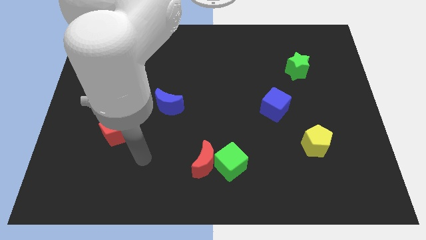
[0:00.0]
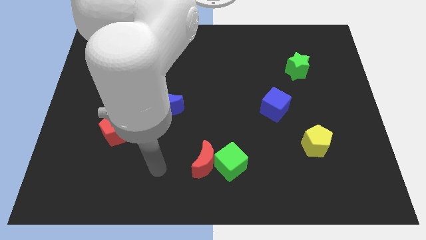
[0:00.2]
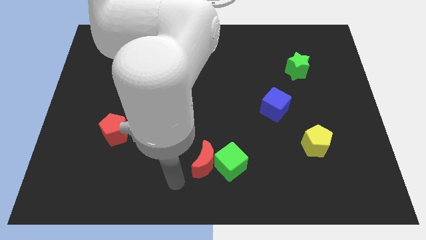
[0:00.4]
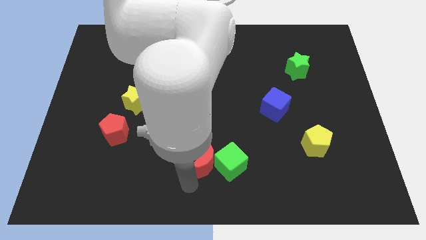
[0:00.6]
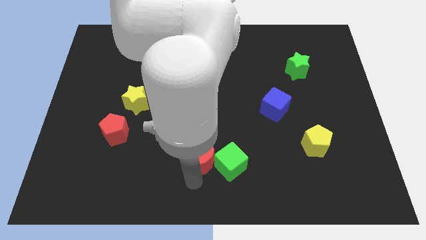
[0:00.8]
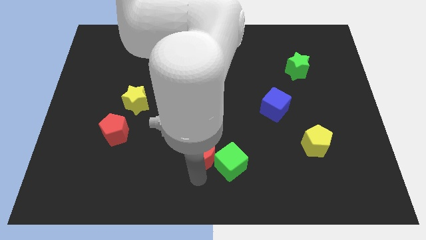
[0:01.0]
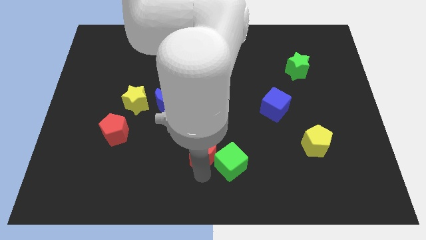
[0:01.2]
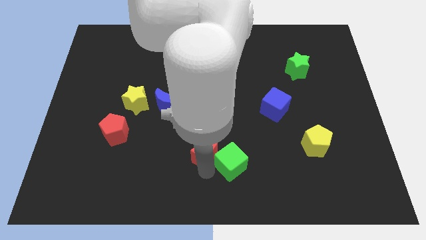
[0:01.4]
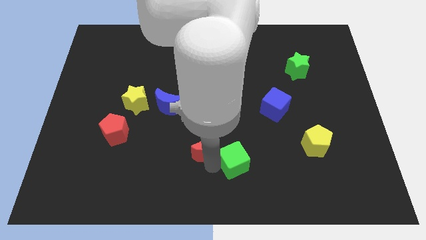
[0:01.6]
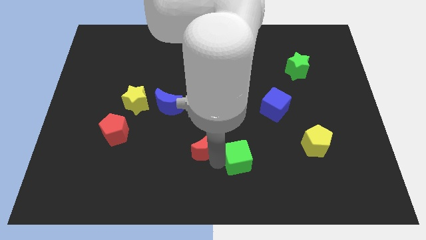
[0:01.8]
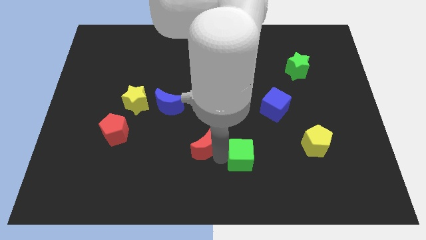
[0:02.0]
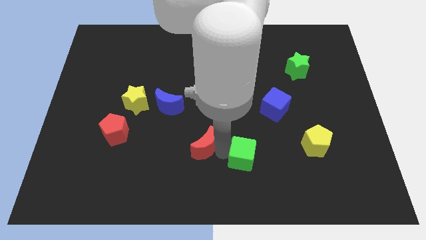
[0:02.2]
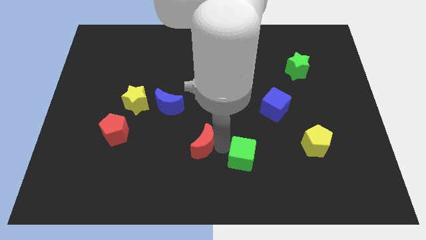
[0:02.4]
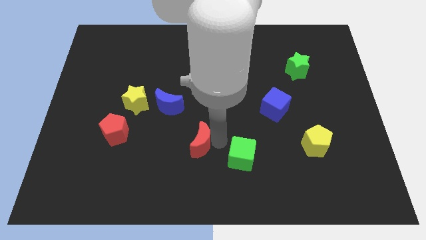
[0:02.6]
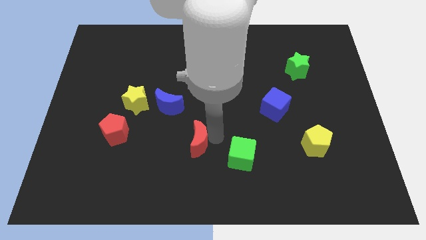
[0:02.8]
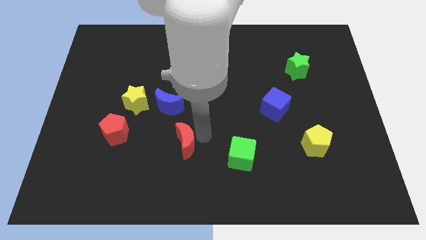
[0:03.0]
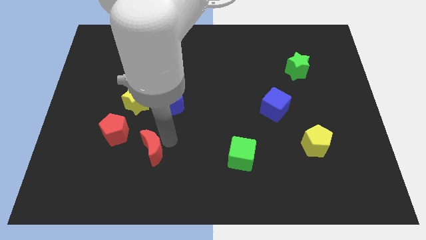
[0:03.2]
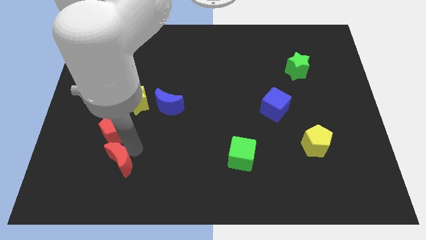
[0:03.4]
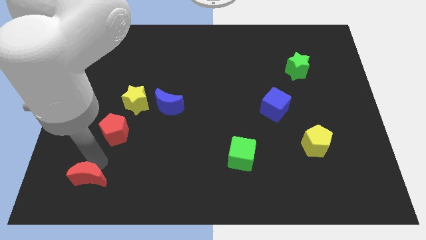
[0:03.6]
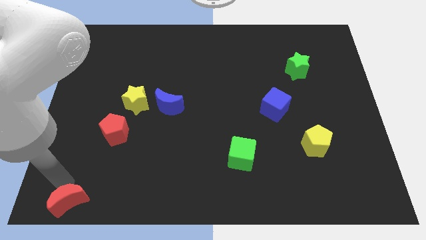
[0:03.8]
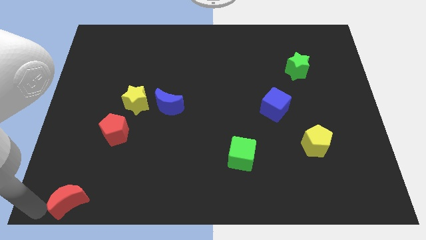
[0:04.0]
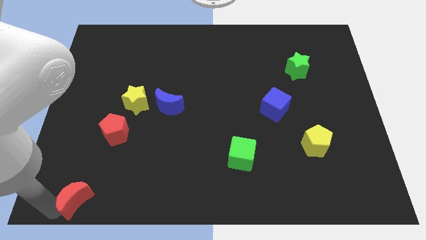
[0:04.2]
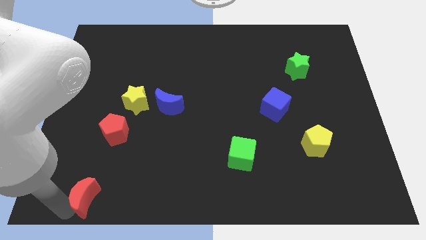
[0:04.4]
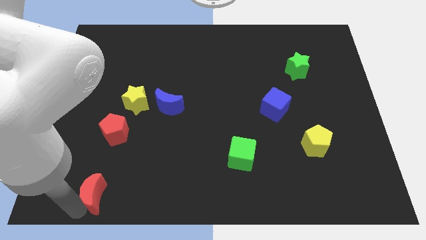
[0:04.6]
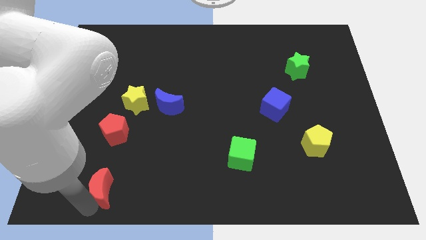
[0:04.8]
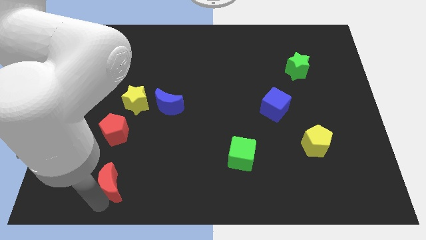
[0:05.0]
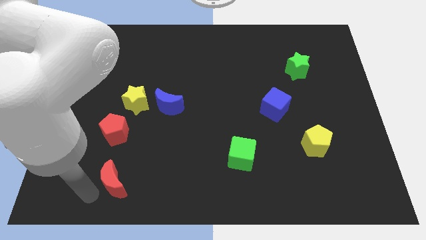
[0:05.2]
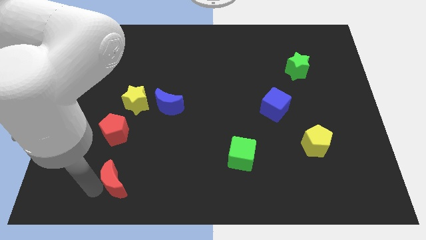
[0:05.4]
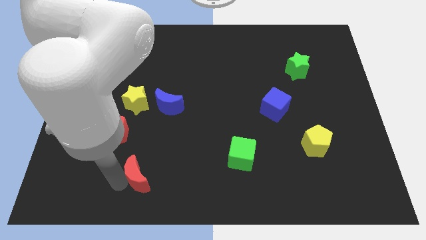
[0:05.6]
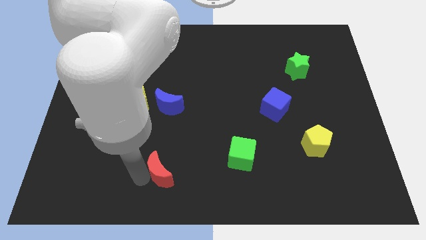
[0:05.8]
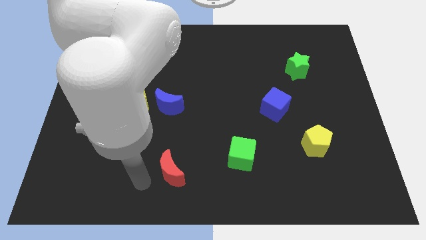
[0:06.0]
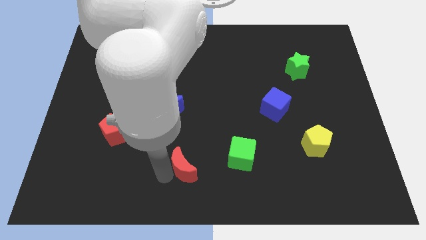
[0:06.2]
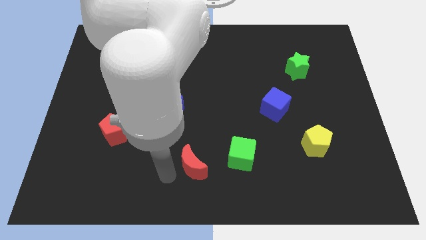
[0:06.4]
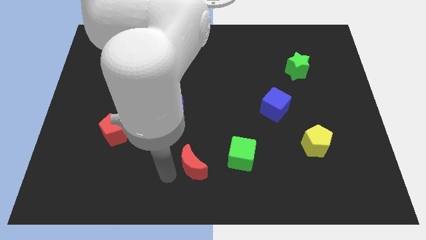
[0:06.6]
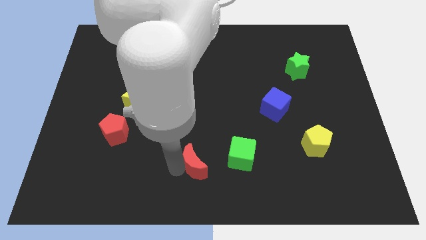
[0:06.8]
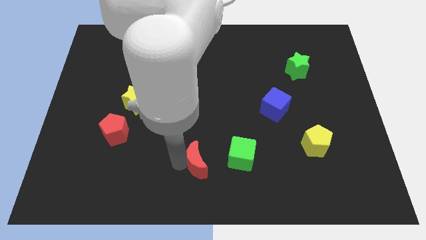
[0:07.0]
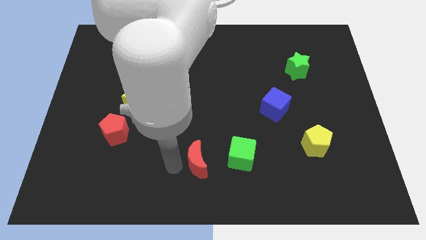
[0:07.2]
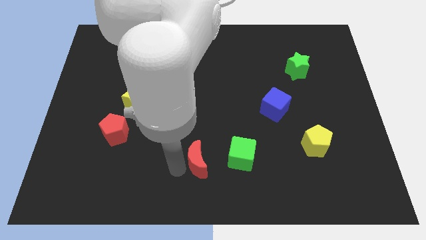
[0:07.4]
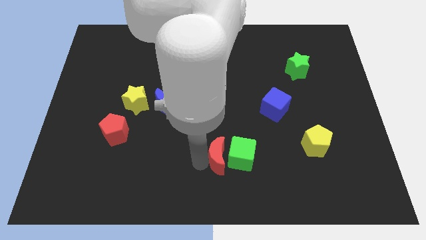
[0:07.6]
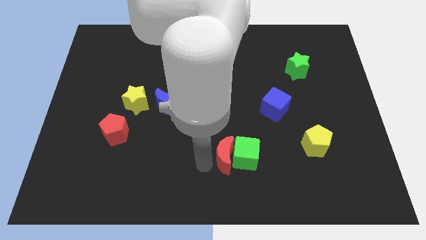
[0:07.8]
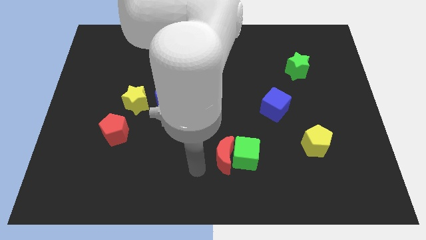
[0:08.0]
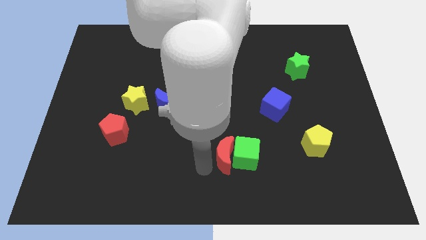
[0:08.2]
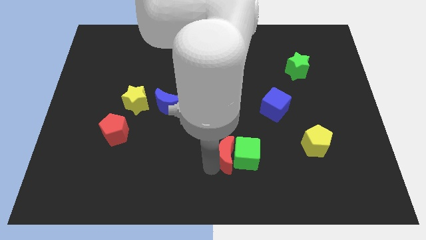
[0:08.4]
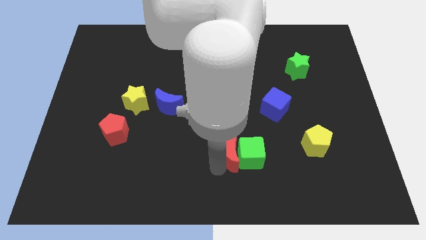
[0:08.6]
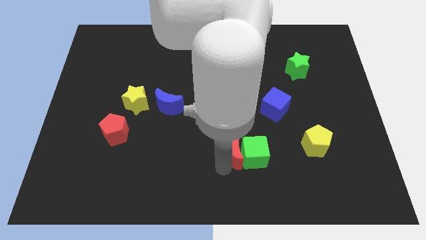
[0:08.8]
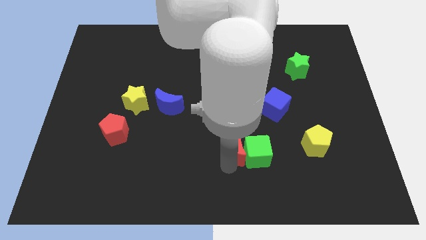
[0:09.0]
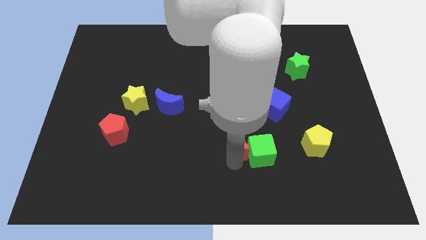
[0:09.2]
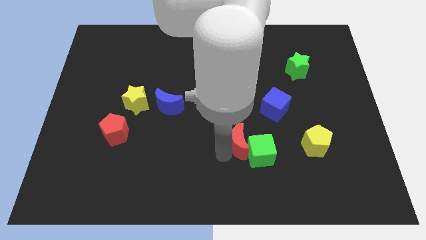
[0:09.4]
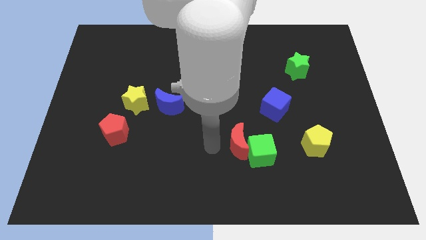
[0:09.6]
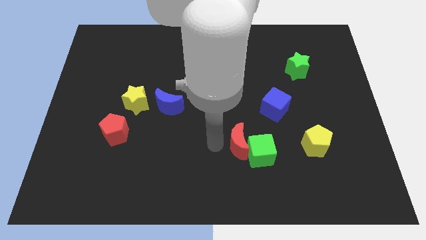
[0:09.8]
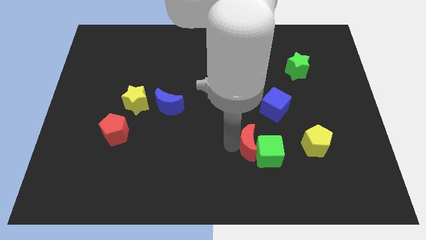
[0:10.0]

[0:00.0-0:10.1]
move the red moon just left of the yellow pentagon

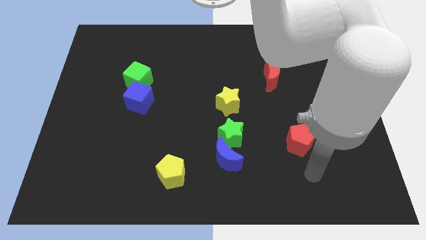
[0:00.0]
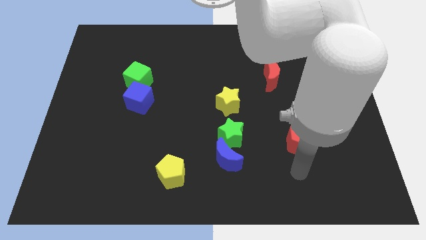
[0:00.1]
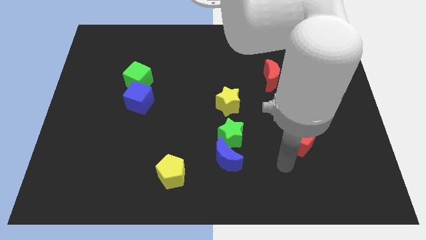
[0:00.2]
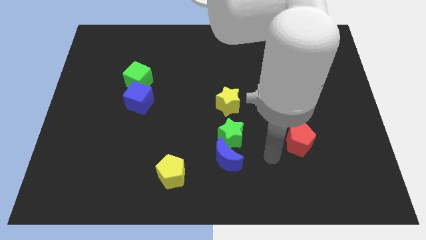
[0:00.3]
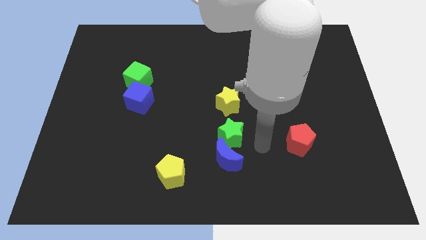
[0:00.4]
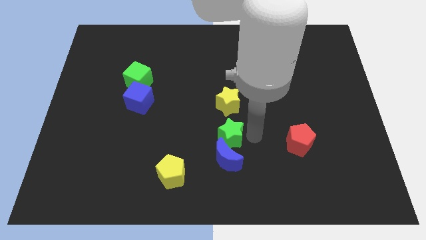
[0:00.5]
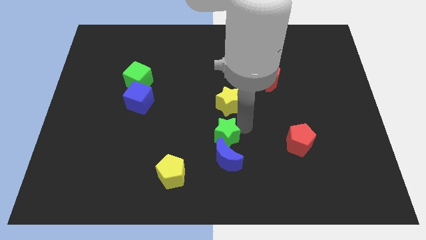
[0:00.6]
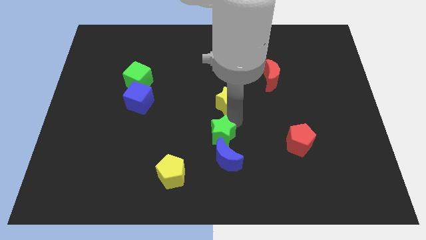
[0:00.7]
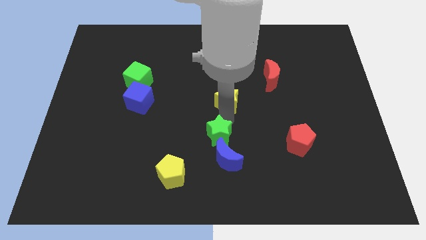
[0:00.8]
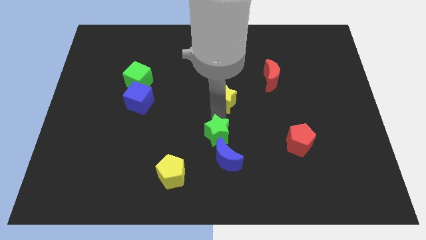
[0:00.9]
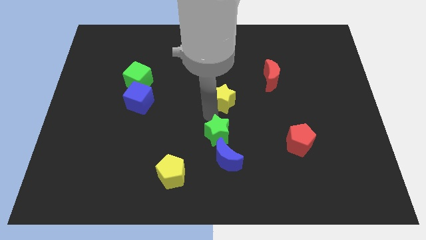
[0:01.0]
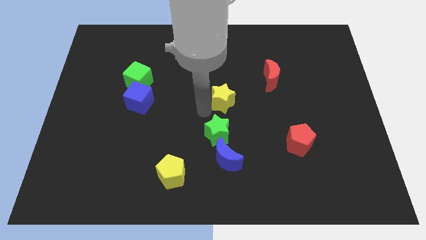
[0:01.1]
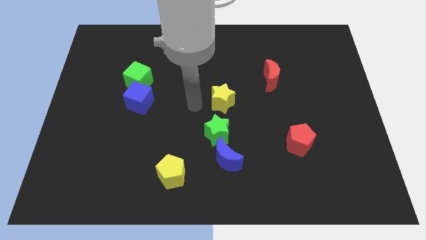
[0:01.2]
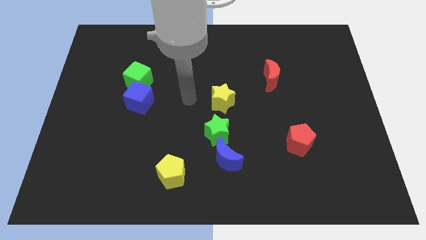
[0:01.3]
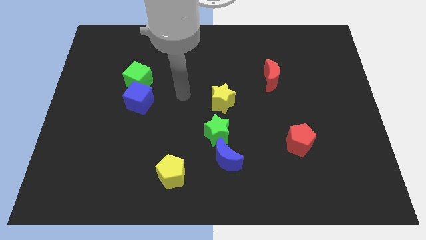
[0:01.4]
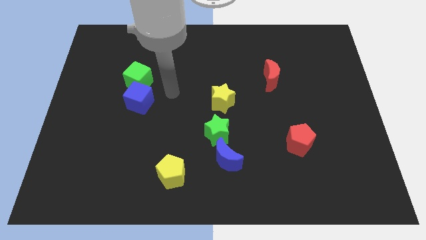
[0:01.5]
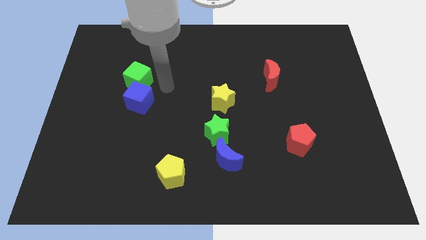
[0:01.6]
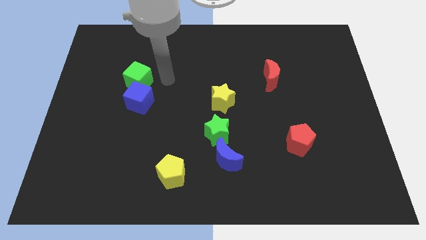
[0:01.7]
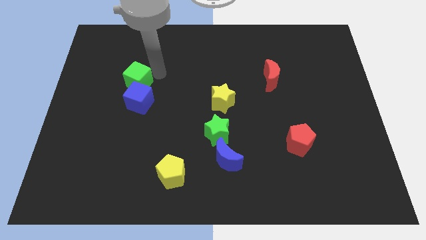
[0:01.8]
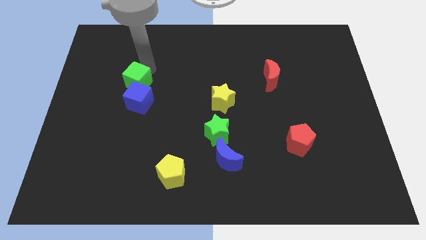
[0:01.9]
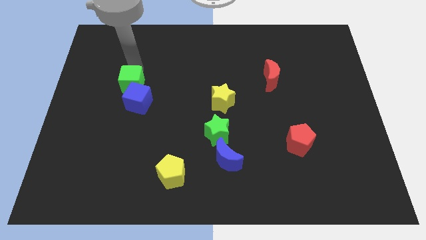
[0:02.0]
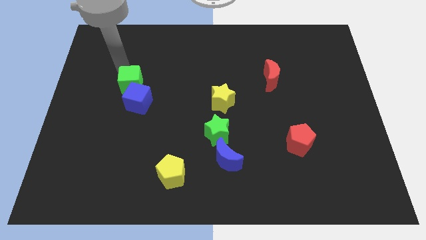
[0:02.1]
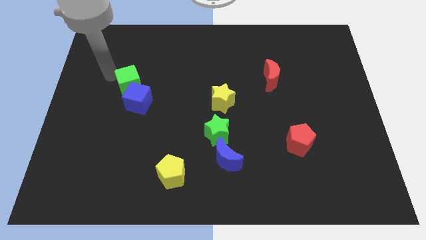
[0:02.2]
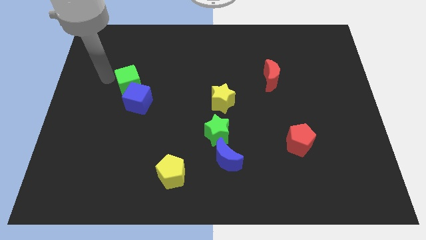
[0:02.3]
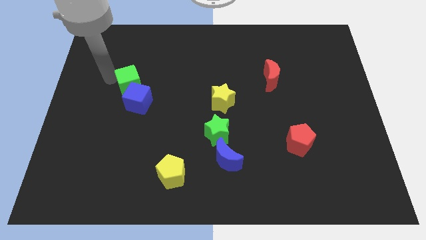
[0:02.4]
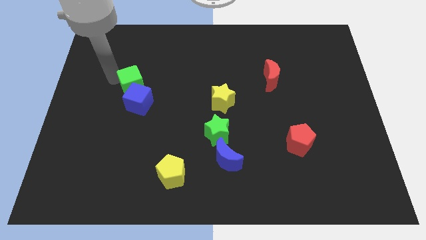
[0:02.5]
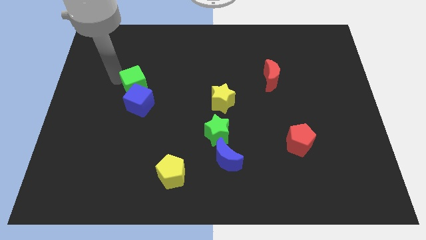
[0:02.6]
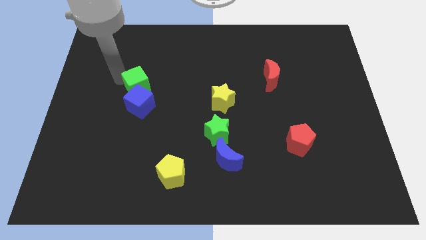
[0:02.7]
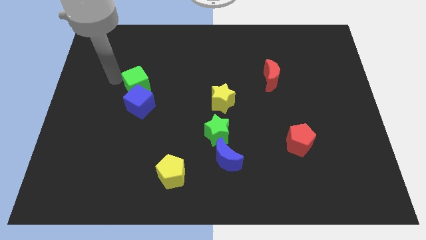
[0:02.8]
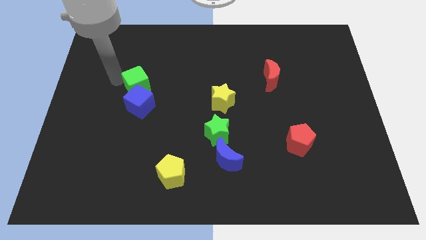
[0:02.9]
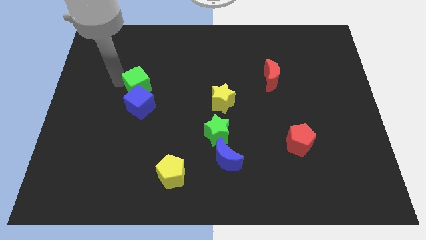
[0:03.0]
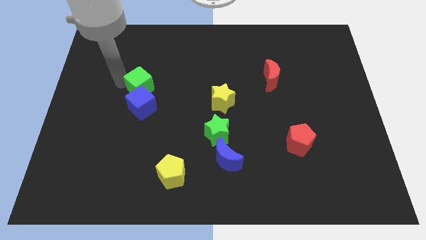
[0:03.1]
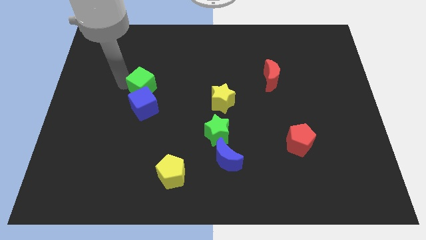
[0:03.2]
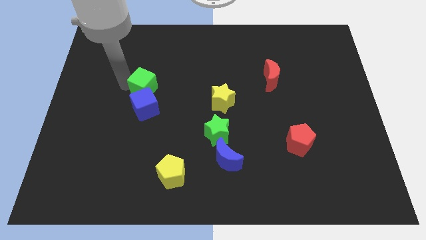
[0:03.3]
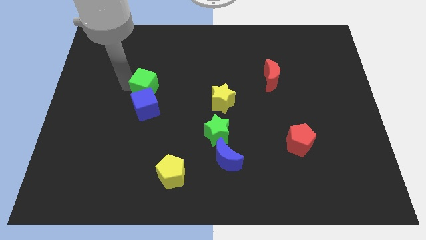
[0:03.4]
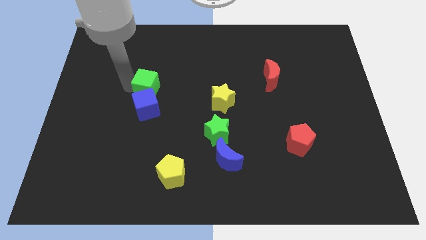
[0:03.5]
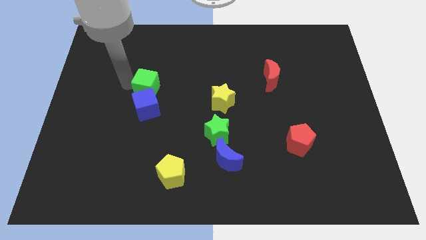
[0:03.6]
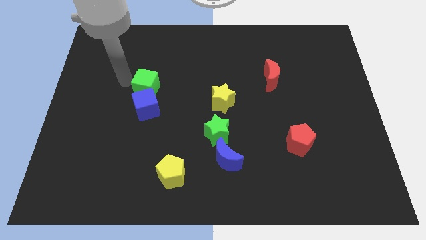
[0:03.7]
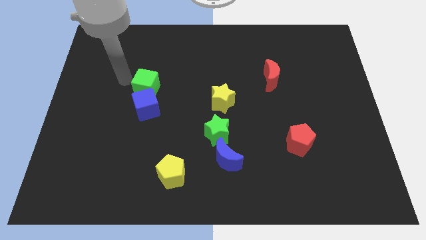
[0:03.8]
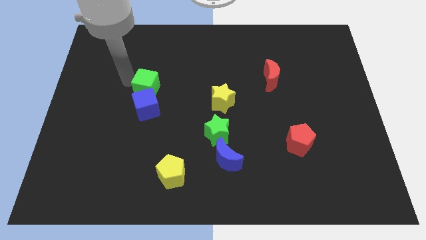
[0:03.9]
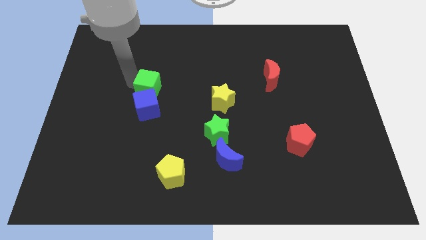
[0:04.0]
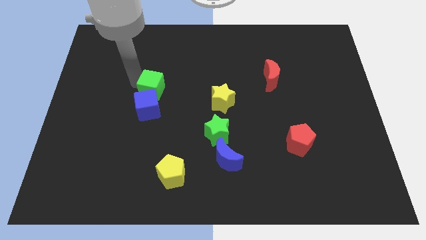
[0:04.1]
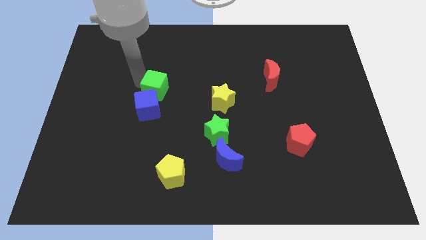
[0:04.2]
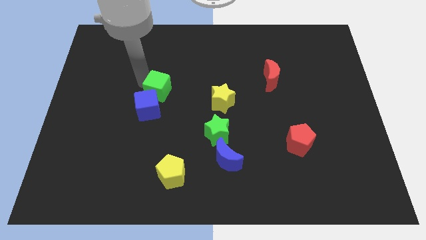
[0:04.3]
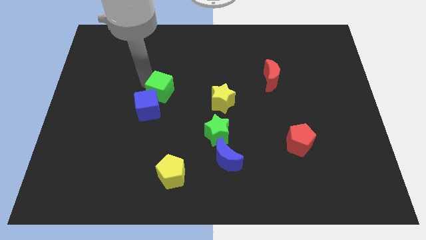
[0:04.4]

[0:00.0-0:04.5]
put the green cube to the left of the yellow star
